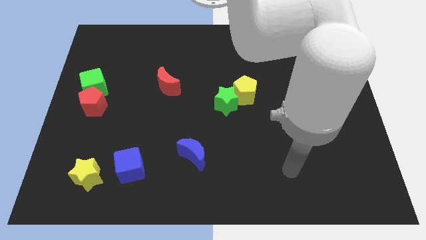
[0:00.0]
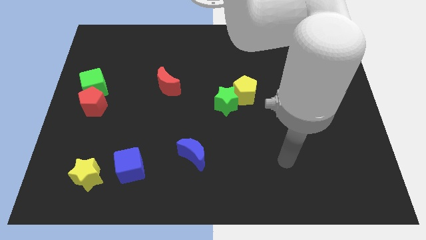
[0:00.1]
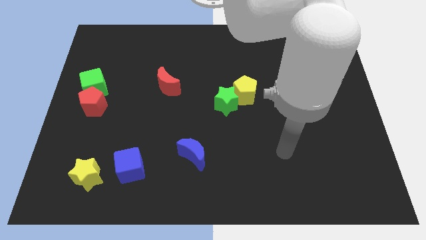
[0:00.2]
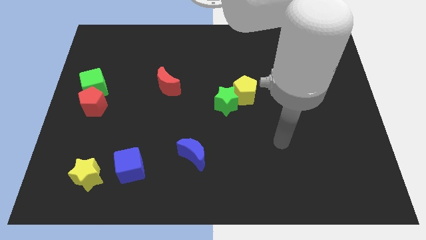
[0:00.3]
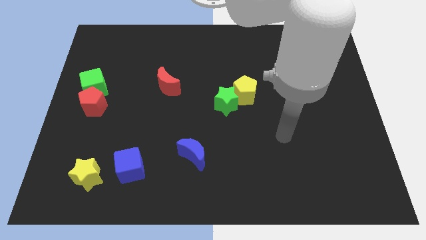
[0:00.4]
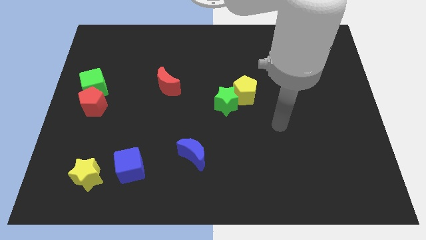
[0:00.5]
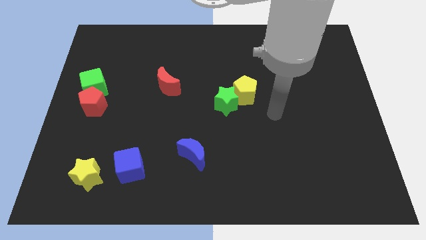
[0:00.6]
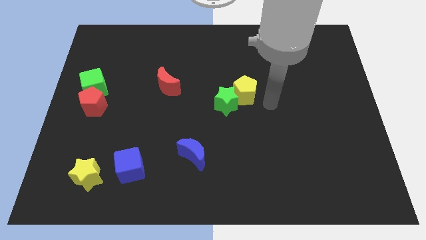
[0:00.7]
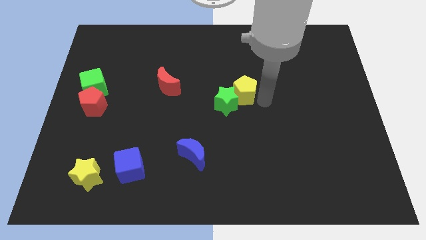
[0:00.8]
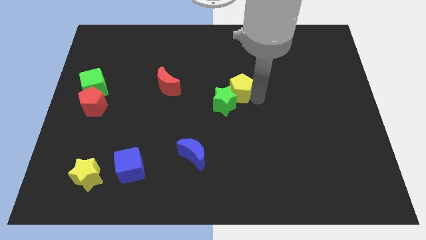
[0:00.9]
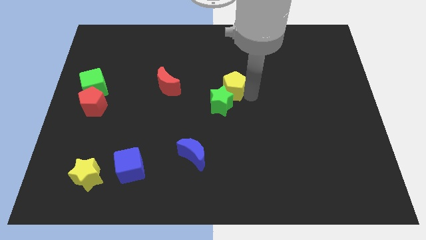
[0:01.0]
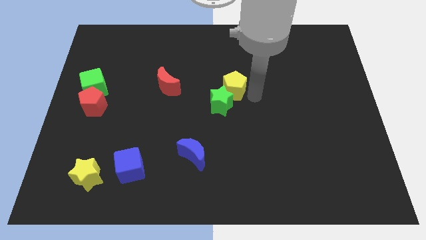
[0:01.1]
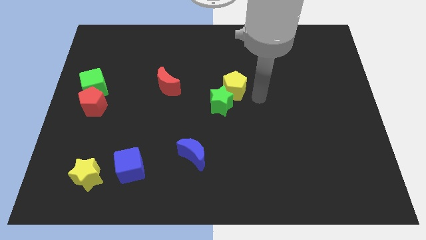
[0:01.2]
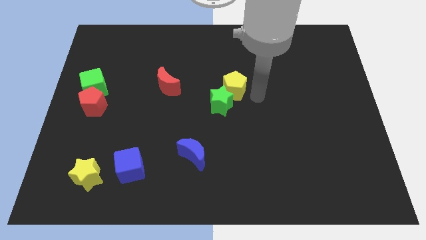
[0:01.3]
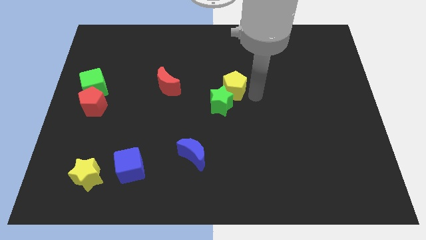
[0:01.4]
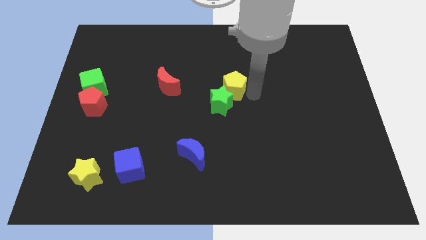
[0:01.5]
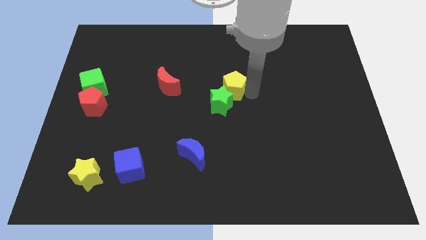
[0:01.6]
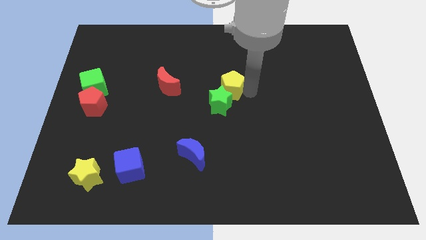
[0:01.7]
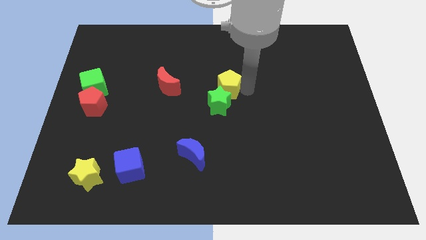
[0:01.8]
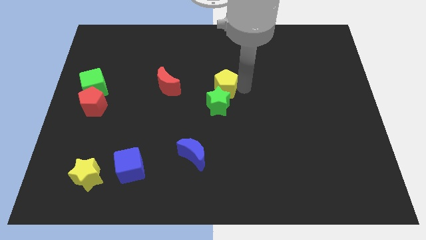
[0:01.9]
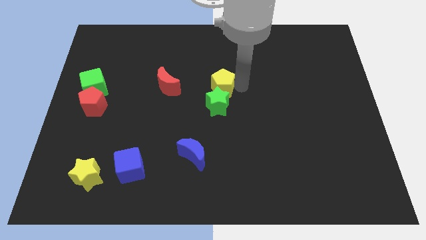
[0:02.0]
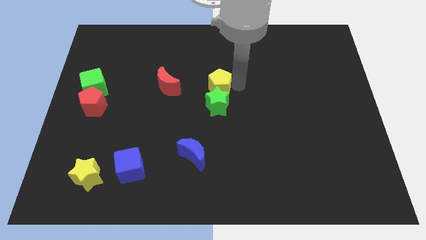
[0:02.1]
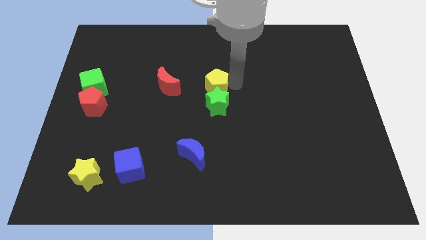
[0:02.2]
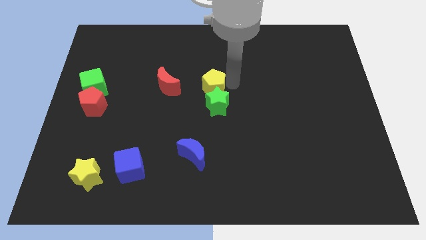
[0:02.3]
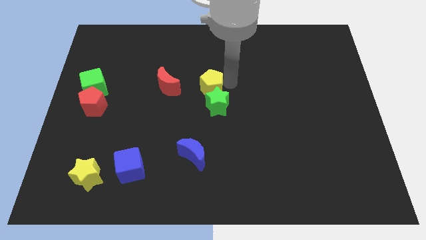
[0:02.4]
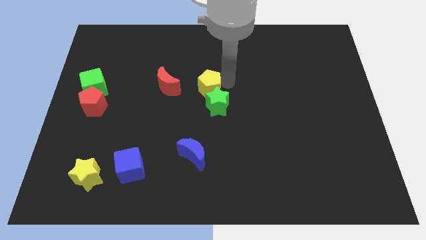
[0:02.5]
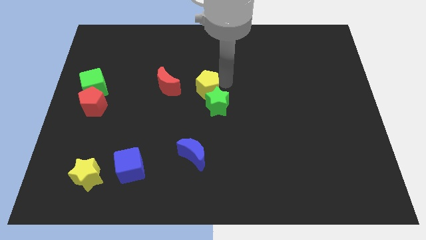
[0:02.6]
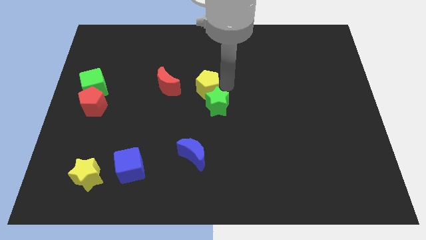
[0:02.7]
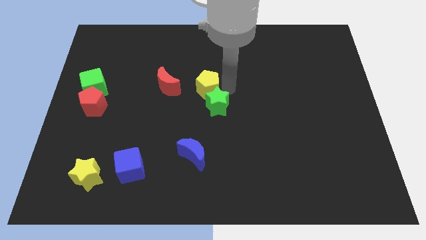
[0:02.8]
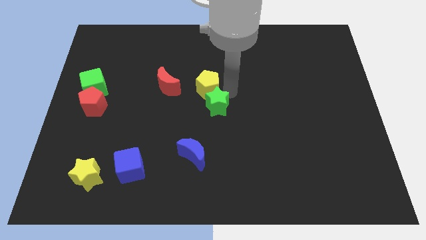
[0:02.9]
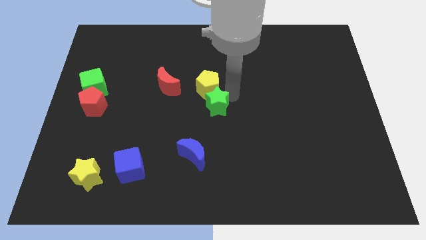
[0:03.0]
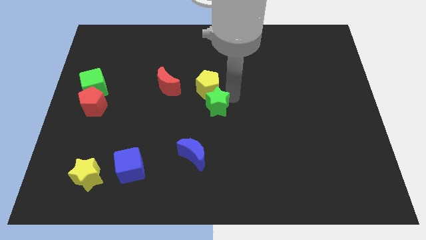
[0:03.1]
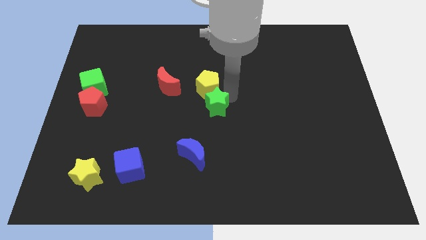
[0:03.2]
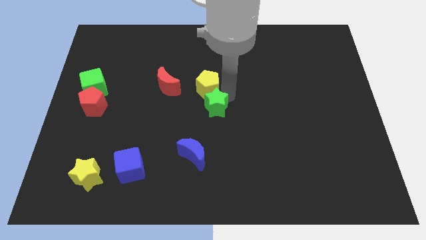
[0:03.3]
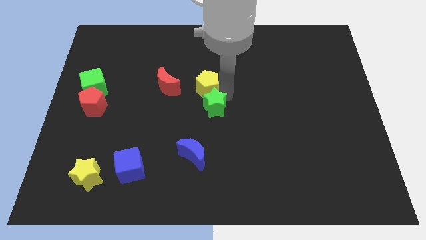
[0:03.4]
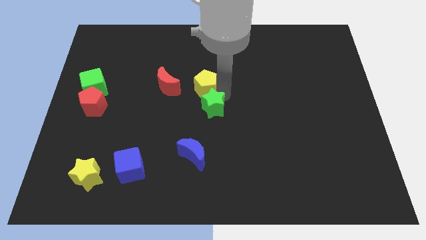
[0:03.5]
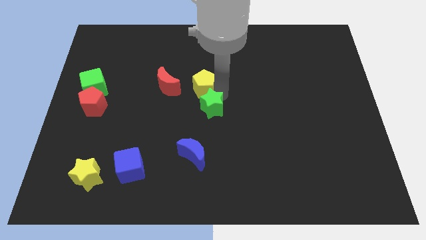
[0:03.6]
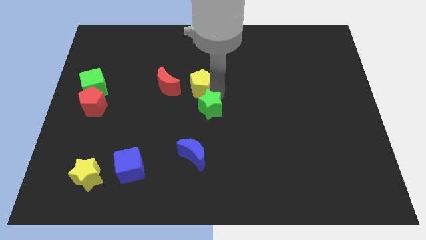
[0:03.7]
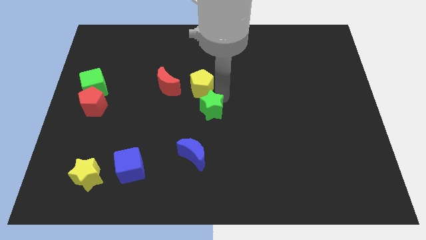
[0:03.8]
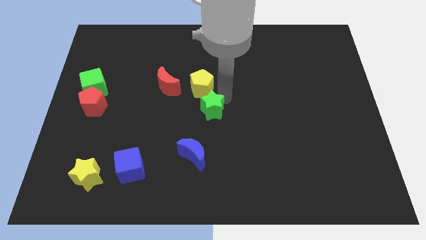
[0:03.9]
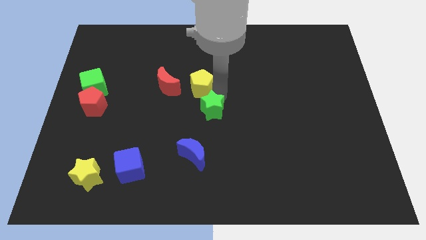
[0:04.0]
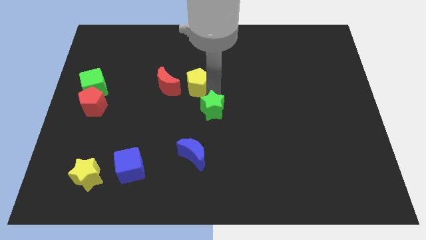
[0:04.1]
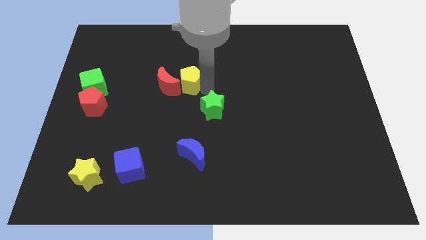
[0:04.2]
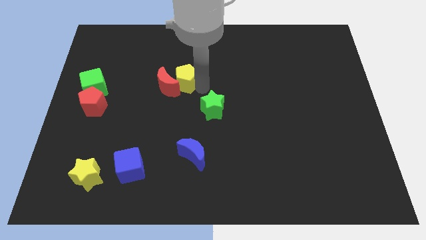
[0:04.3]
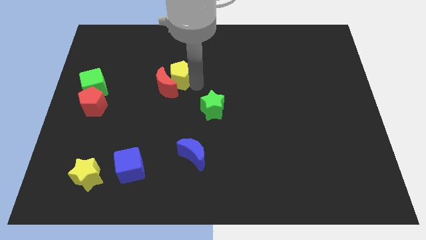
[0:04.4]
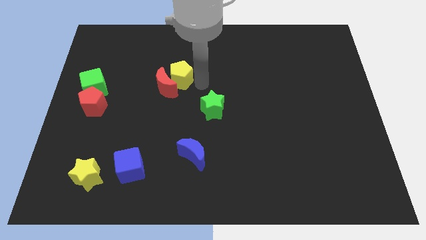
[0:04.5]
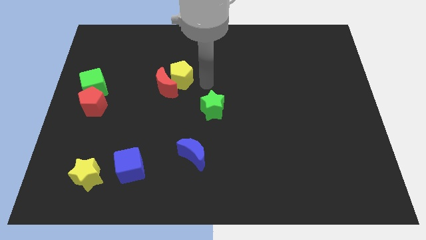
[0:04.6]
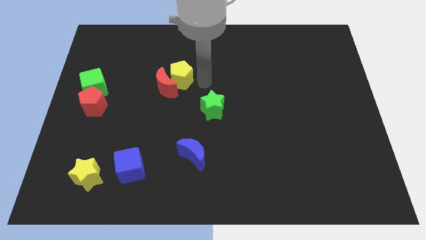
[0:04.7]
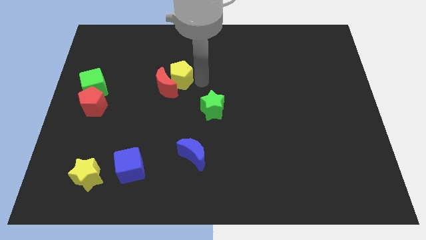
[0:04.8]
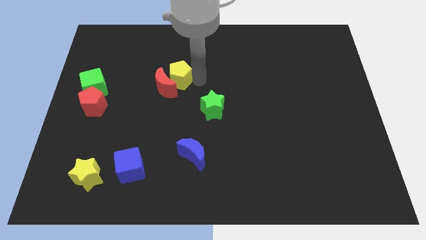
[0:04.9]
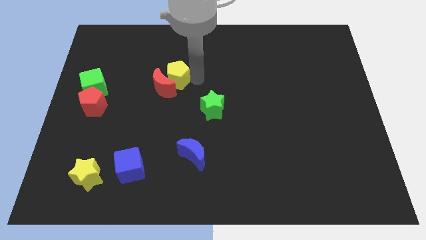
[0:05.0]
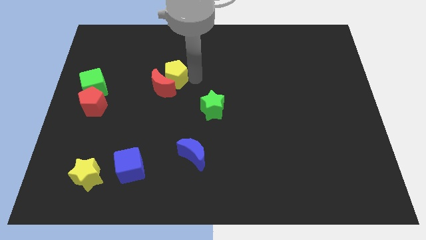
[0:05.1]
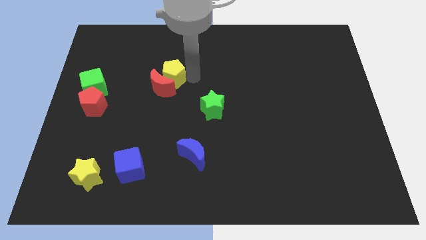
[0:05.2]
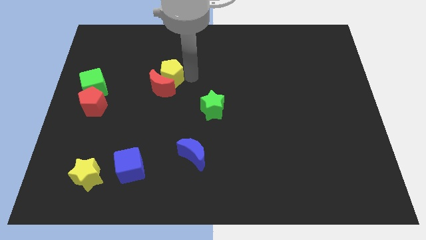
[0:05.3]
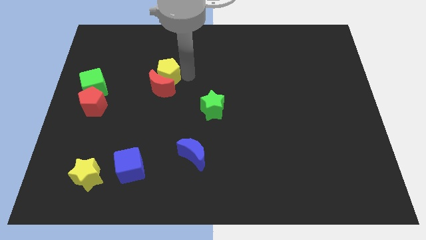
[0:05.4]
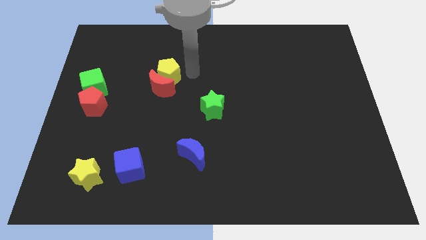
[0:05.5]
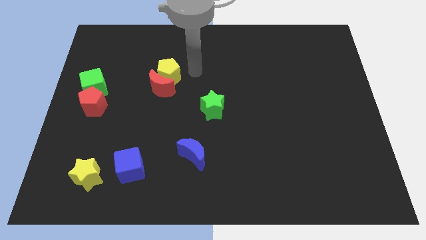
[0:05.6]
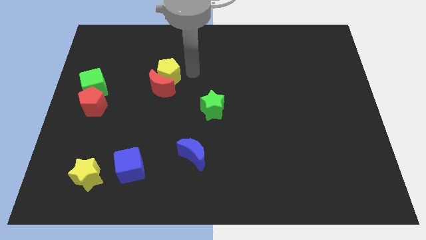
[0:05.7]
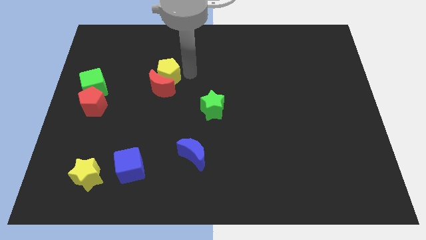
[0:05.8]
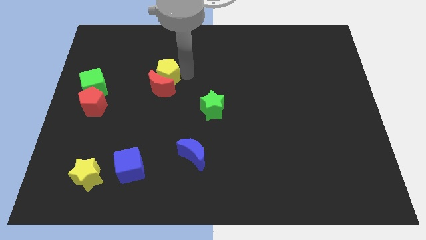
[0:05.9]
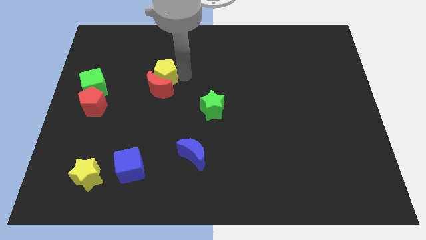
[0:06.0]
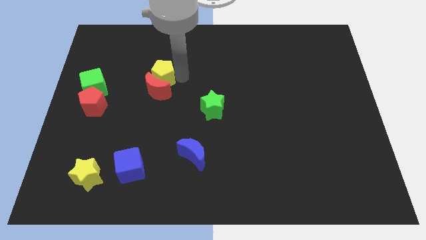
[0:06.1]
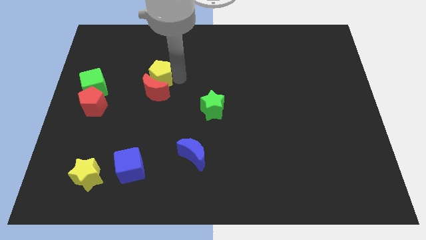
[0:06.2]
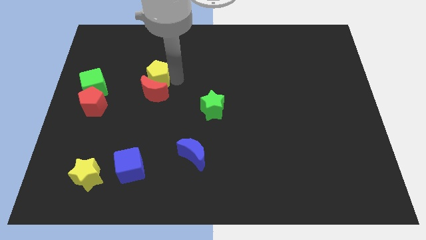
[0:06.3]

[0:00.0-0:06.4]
push the yellow pentagon to the left

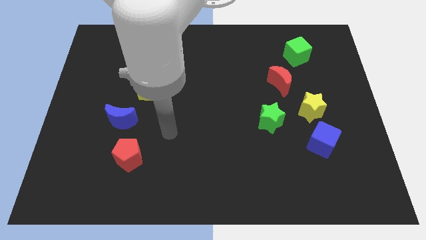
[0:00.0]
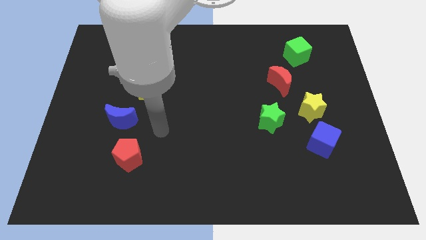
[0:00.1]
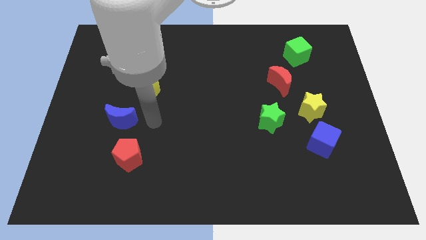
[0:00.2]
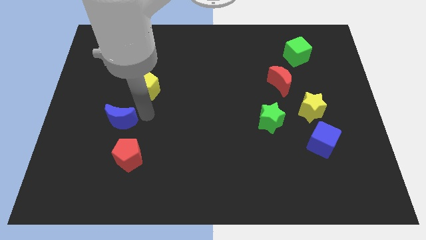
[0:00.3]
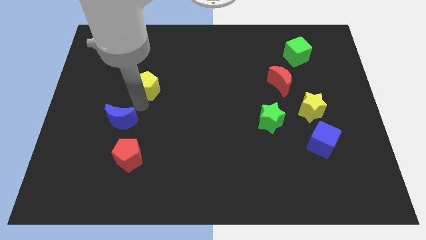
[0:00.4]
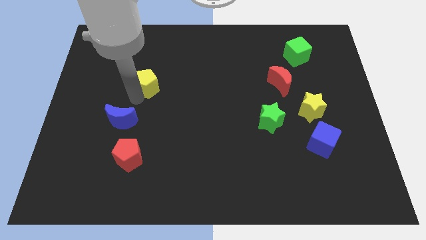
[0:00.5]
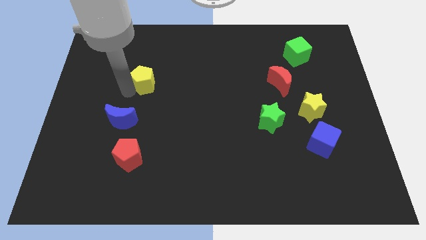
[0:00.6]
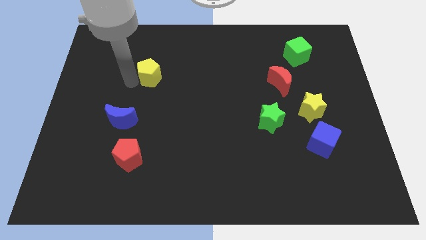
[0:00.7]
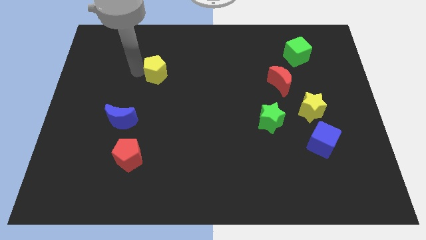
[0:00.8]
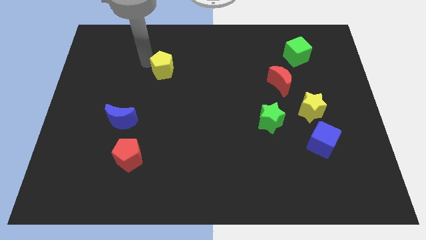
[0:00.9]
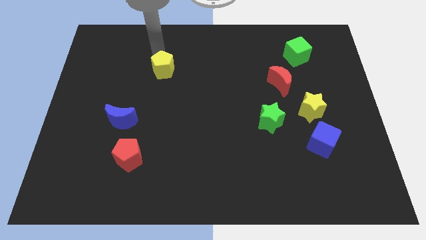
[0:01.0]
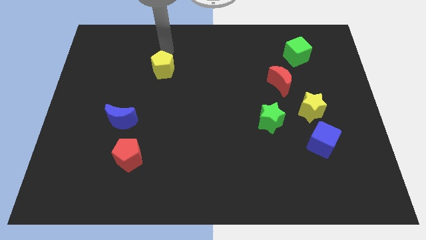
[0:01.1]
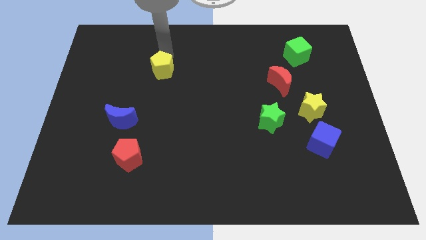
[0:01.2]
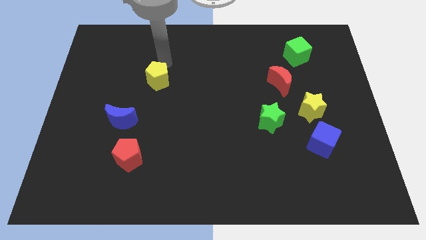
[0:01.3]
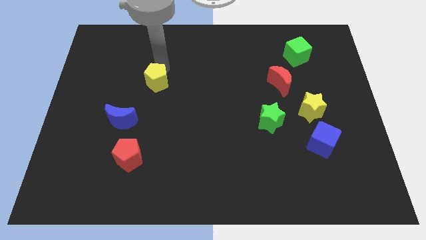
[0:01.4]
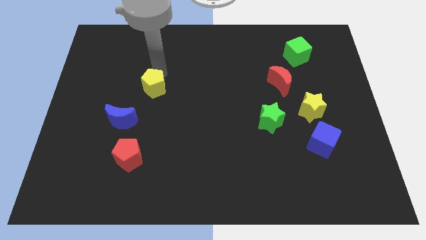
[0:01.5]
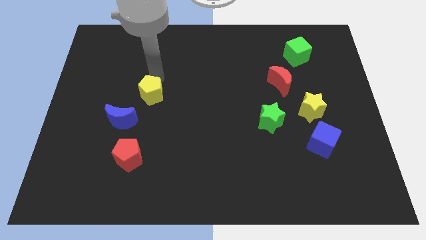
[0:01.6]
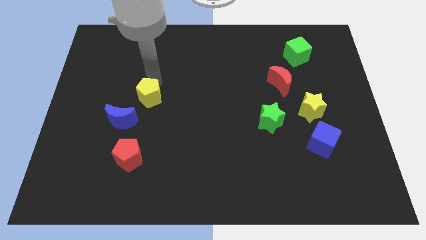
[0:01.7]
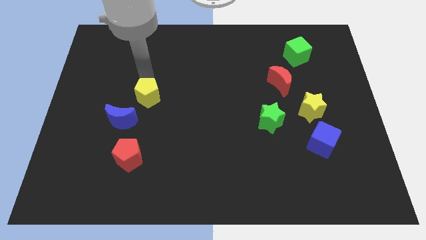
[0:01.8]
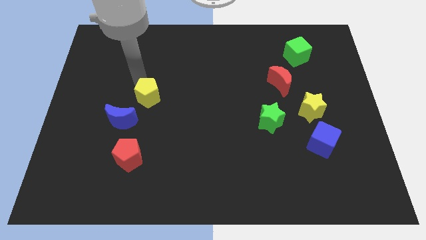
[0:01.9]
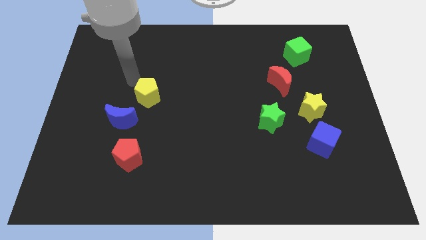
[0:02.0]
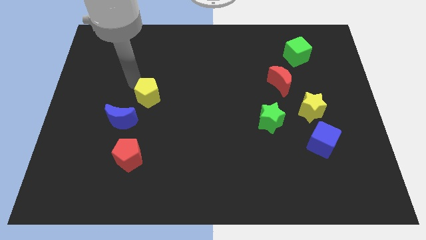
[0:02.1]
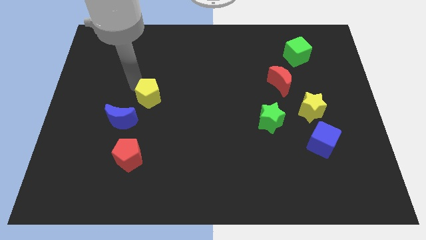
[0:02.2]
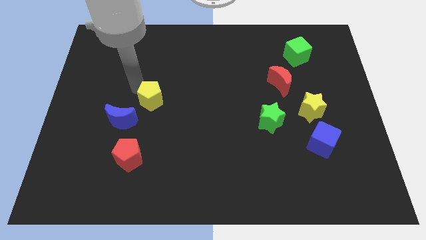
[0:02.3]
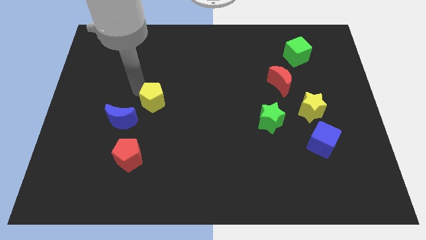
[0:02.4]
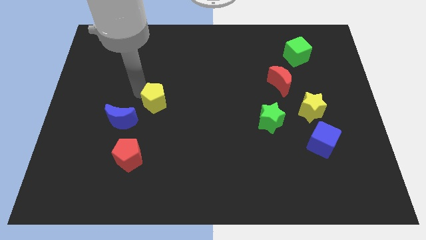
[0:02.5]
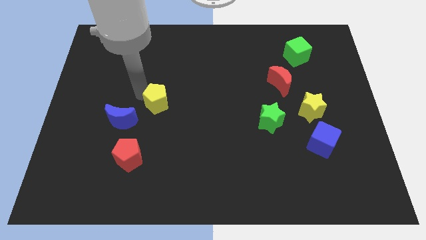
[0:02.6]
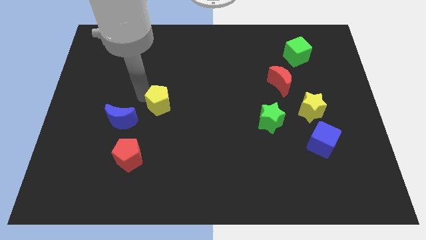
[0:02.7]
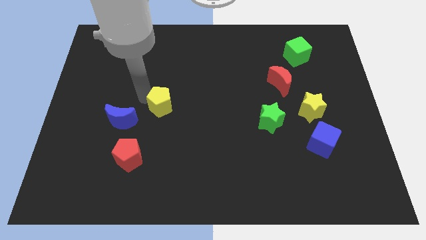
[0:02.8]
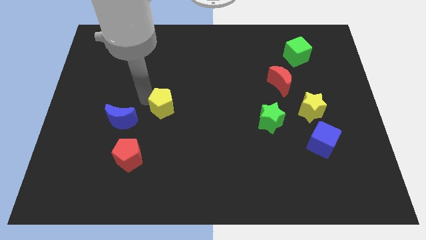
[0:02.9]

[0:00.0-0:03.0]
slide the yellow pentagon slightly diagonally down and right
